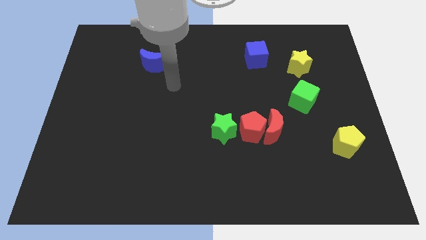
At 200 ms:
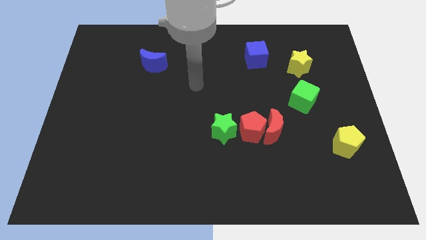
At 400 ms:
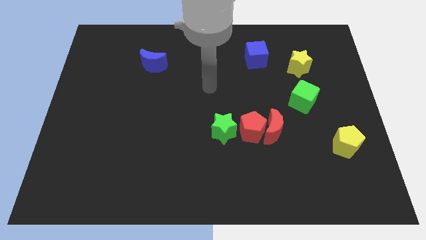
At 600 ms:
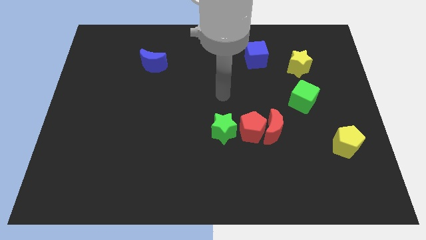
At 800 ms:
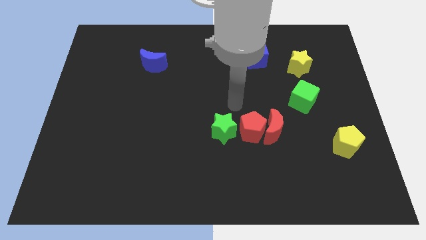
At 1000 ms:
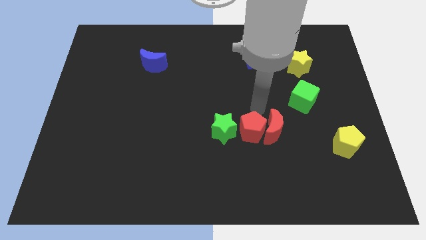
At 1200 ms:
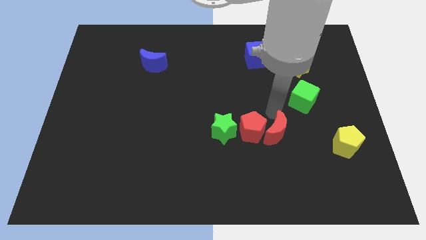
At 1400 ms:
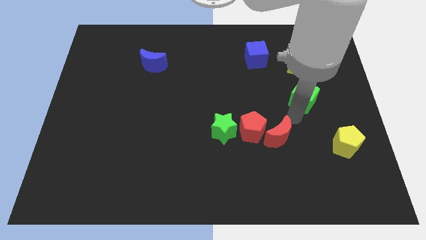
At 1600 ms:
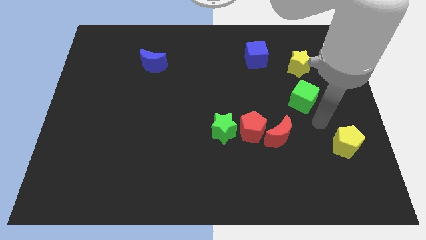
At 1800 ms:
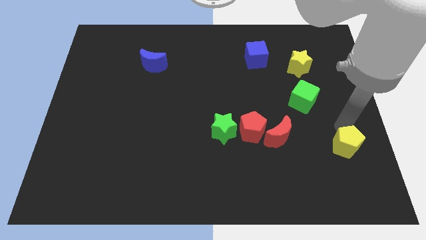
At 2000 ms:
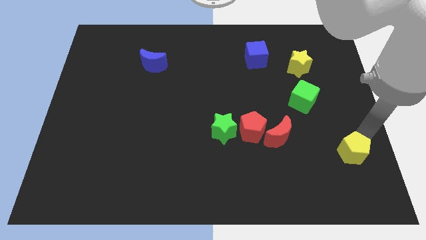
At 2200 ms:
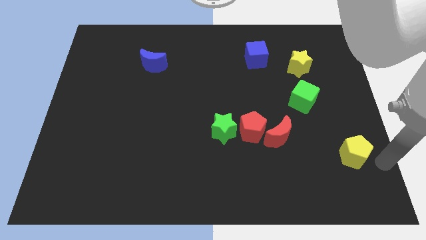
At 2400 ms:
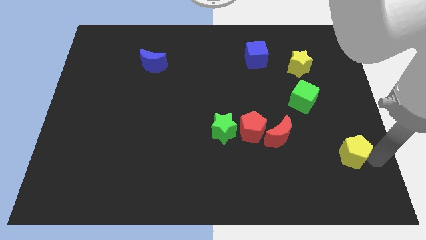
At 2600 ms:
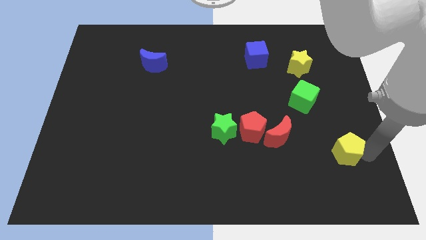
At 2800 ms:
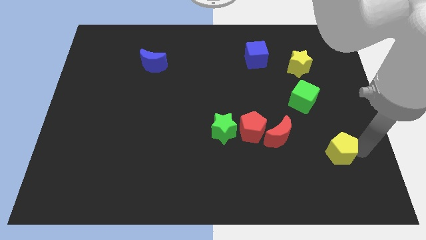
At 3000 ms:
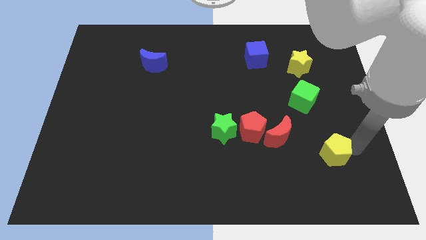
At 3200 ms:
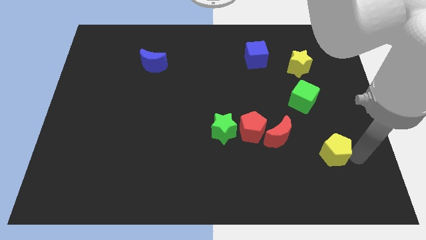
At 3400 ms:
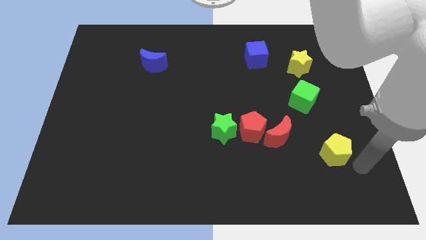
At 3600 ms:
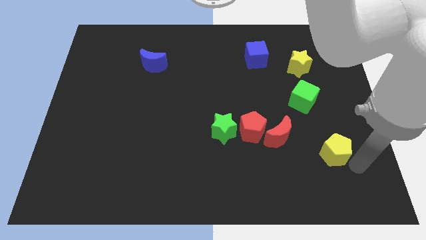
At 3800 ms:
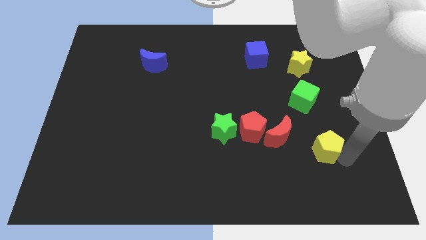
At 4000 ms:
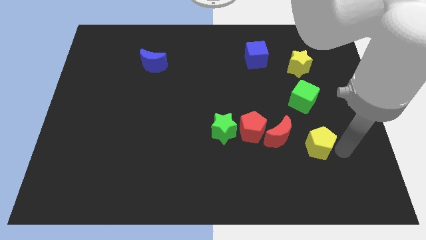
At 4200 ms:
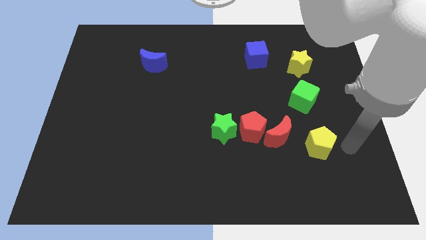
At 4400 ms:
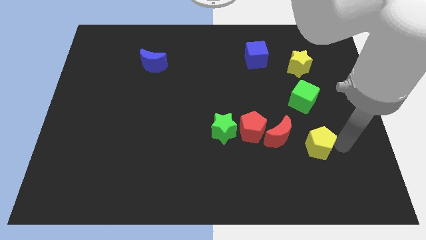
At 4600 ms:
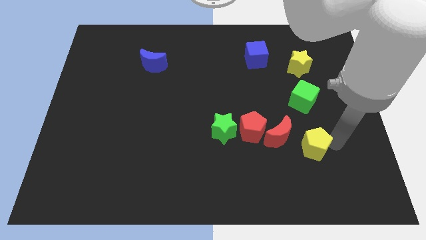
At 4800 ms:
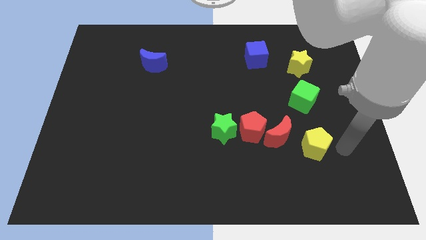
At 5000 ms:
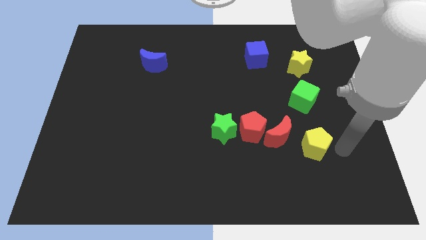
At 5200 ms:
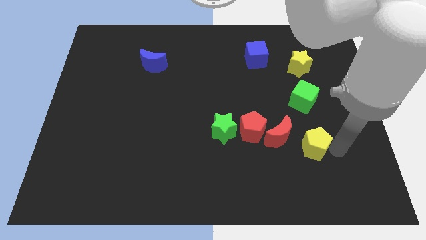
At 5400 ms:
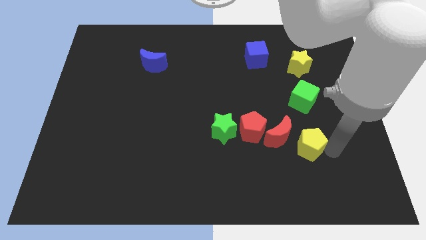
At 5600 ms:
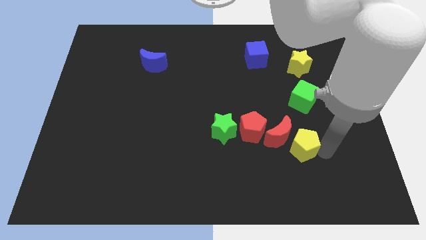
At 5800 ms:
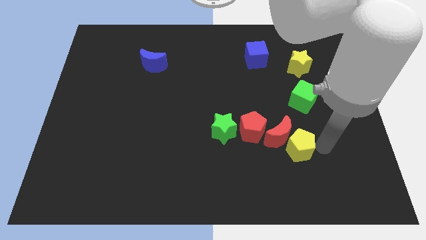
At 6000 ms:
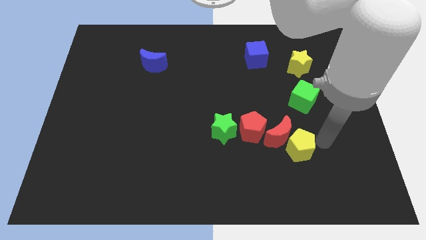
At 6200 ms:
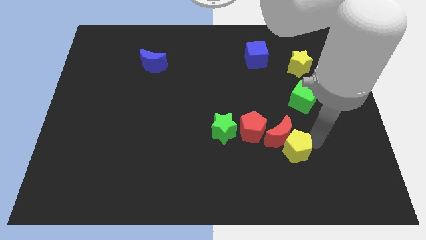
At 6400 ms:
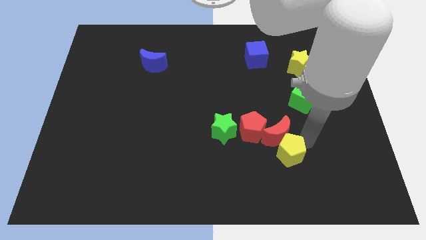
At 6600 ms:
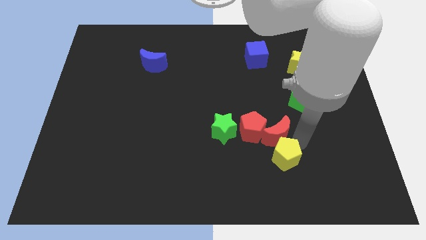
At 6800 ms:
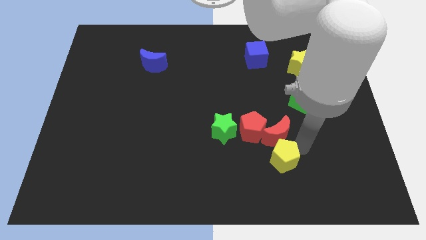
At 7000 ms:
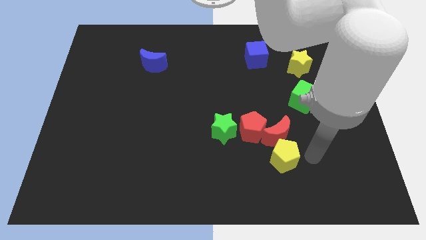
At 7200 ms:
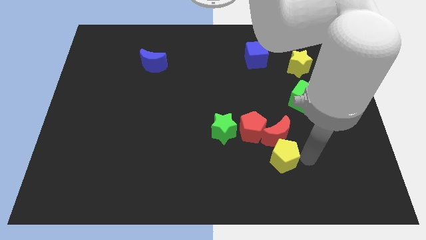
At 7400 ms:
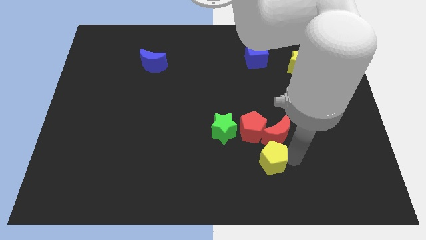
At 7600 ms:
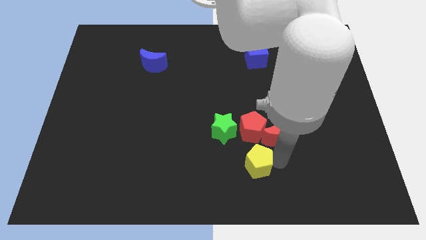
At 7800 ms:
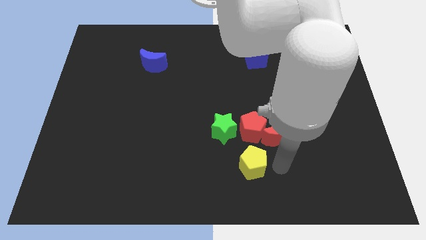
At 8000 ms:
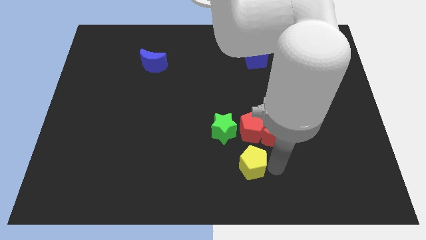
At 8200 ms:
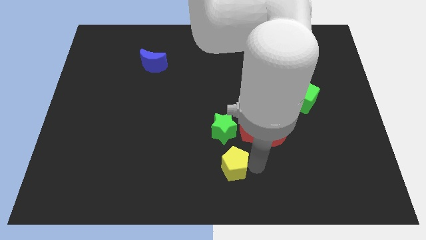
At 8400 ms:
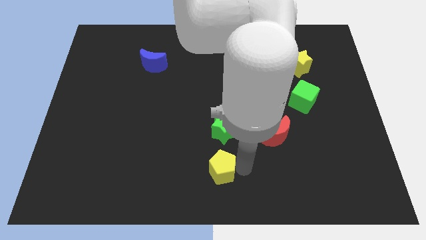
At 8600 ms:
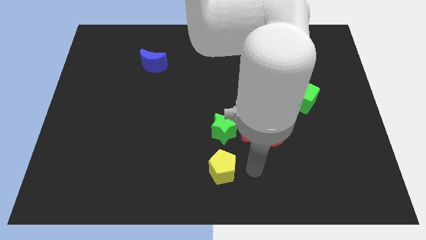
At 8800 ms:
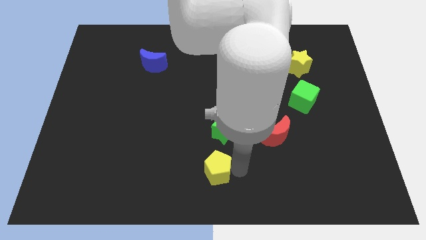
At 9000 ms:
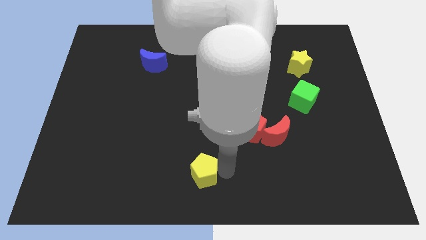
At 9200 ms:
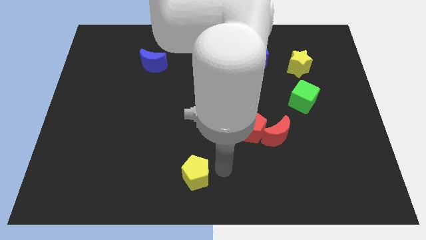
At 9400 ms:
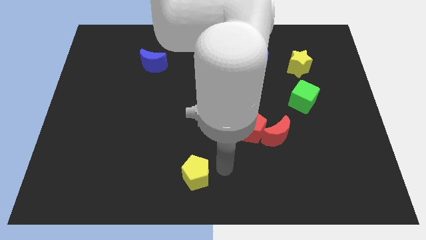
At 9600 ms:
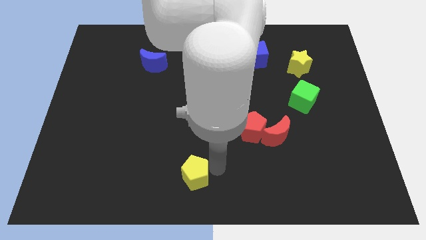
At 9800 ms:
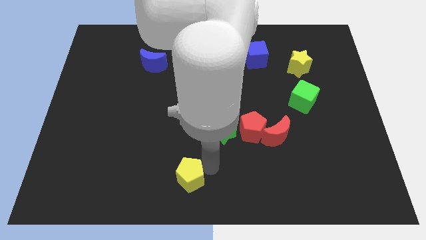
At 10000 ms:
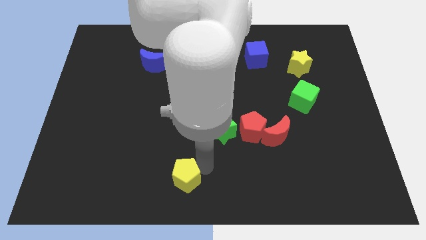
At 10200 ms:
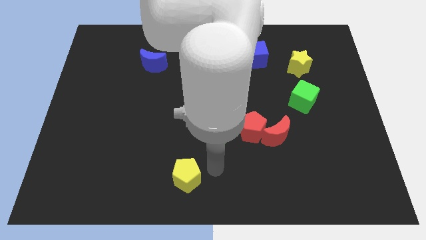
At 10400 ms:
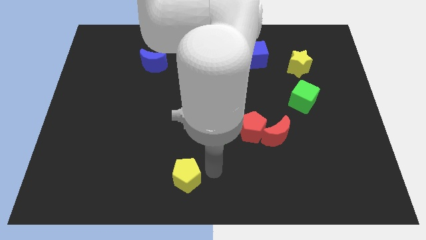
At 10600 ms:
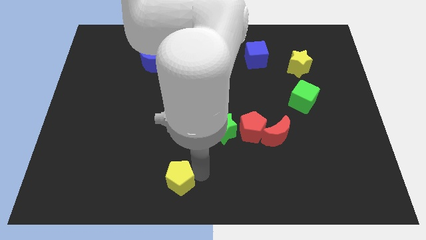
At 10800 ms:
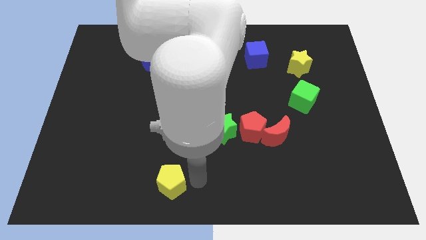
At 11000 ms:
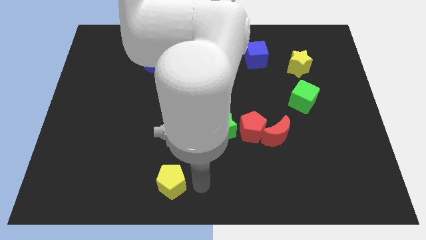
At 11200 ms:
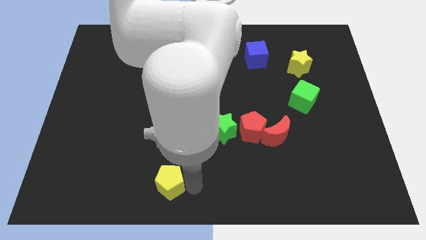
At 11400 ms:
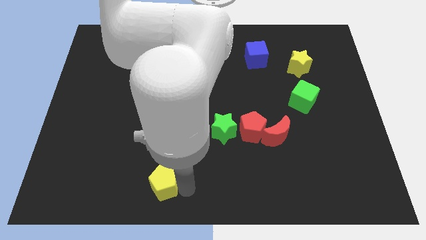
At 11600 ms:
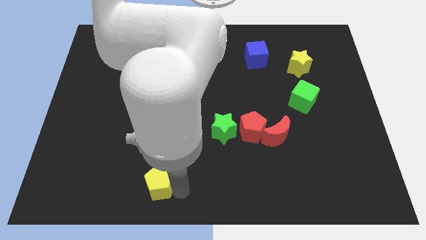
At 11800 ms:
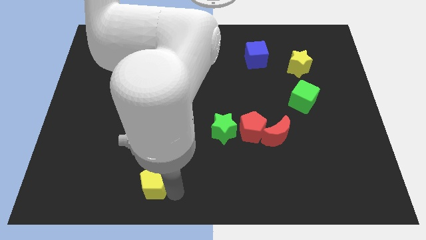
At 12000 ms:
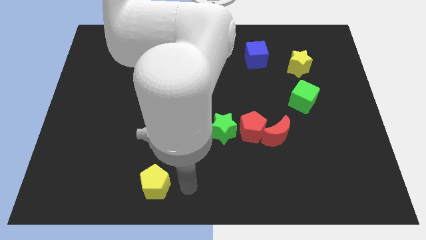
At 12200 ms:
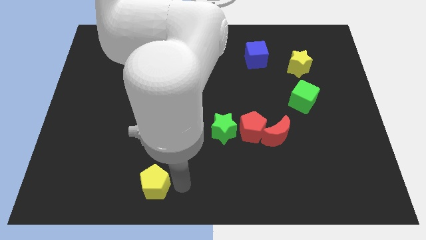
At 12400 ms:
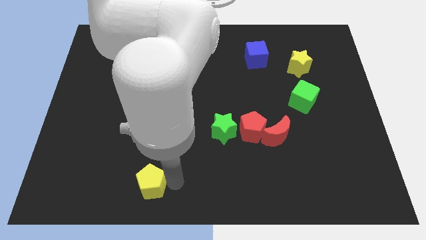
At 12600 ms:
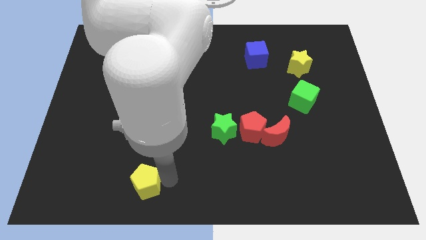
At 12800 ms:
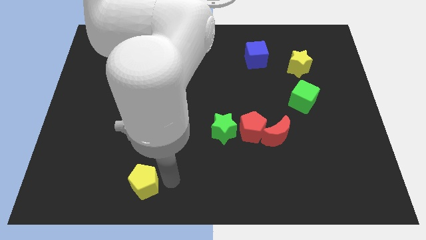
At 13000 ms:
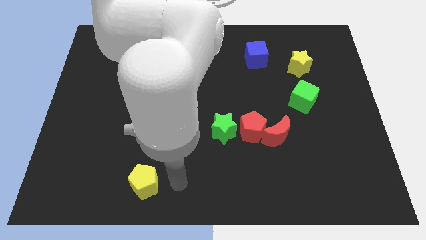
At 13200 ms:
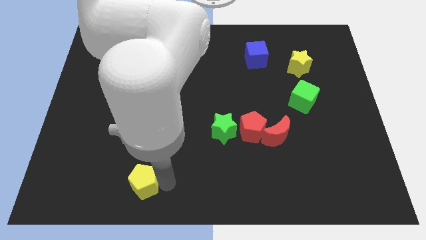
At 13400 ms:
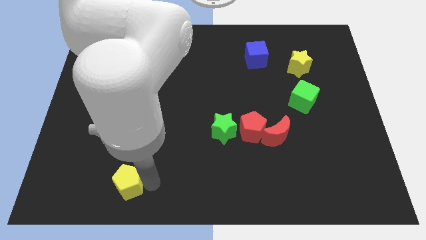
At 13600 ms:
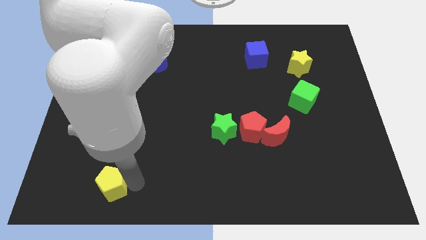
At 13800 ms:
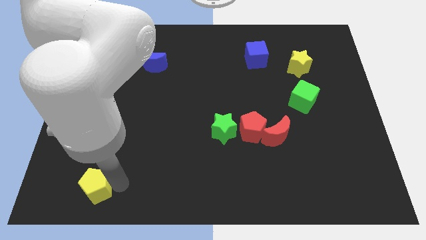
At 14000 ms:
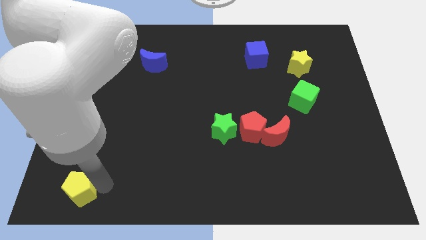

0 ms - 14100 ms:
push the yellow pentagon to the bottom left
